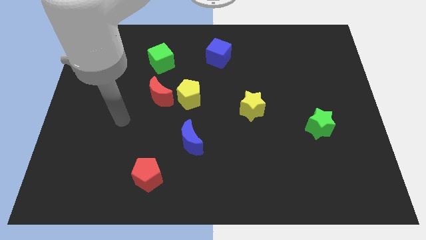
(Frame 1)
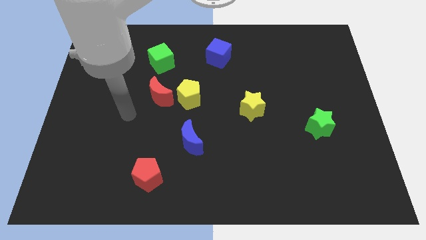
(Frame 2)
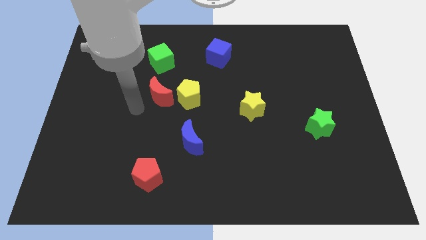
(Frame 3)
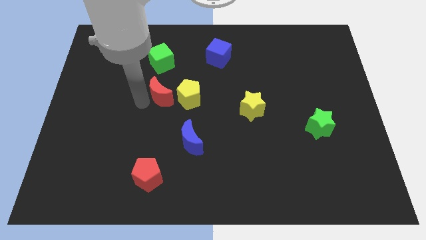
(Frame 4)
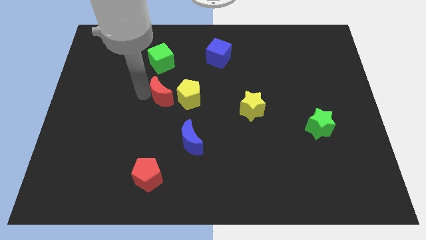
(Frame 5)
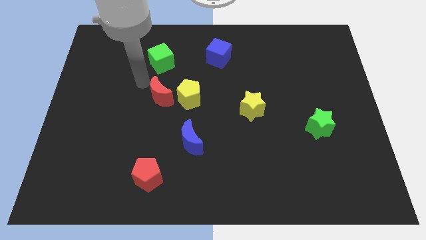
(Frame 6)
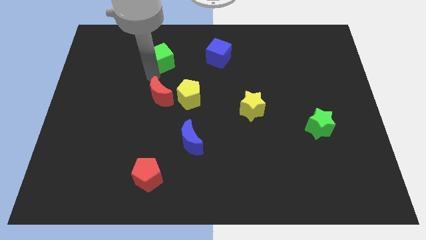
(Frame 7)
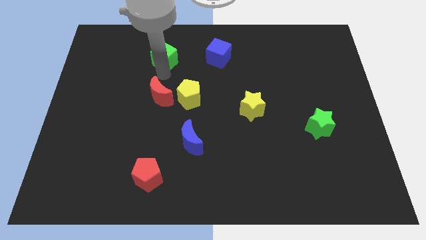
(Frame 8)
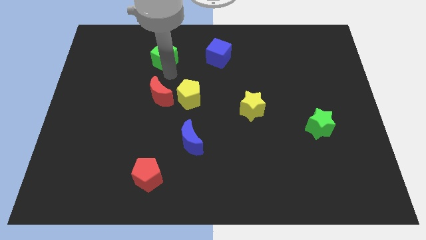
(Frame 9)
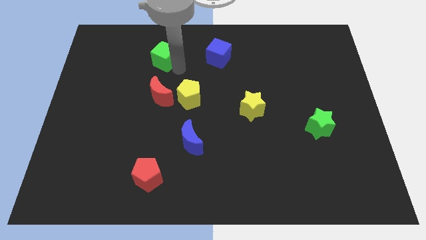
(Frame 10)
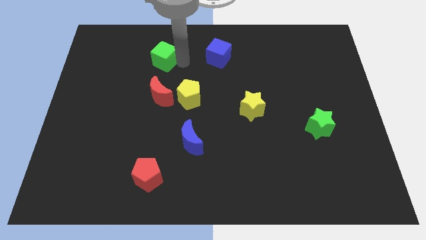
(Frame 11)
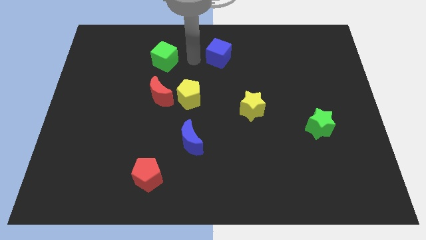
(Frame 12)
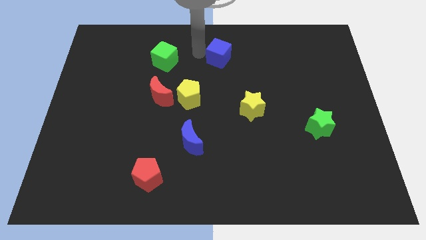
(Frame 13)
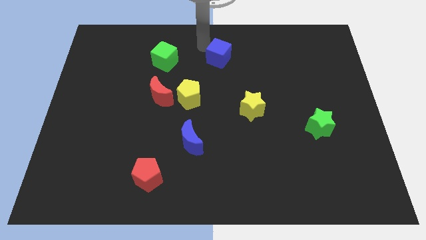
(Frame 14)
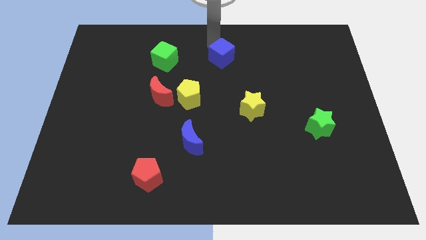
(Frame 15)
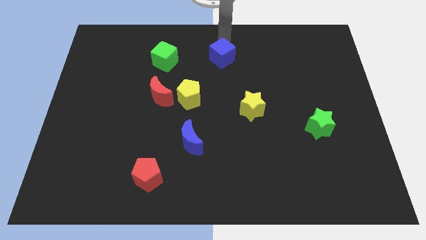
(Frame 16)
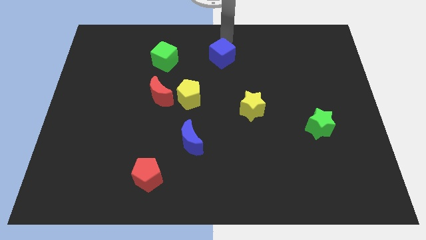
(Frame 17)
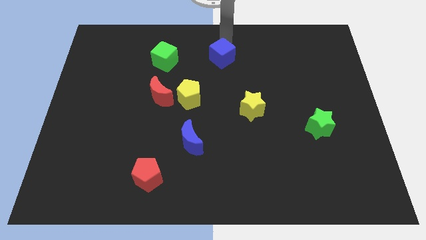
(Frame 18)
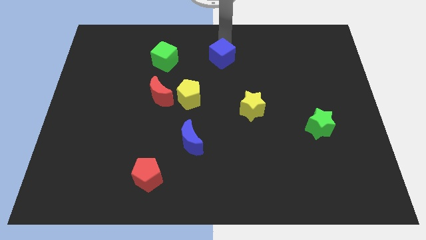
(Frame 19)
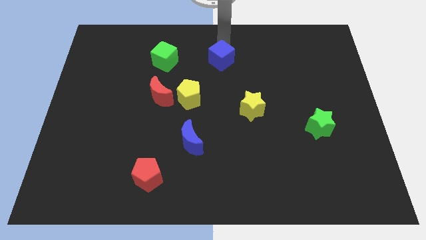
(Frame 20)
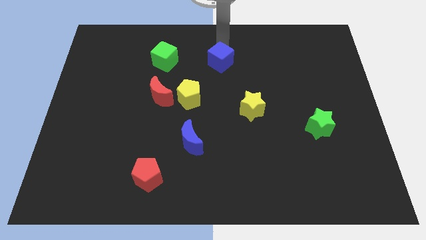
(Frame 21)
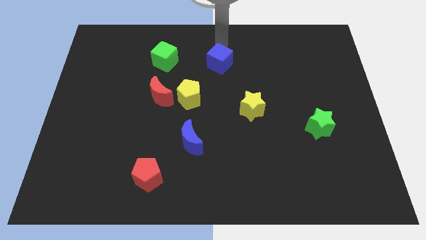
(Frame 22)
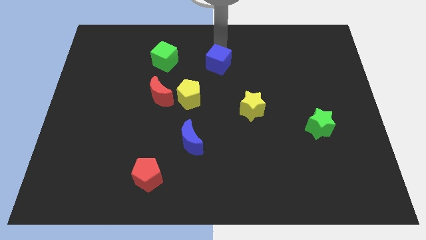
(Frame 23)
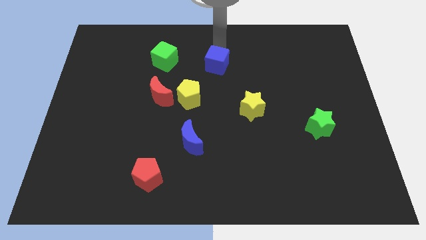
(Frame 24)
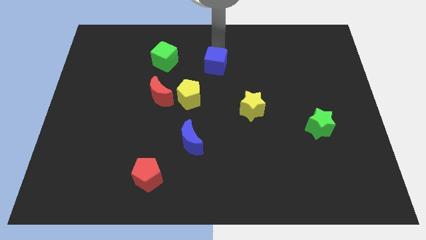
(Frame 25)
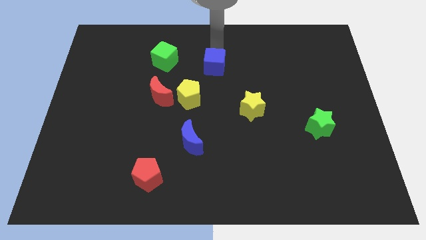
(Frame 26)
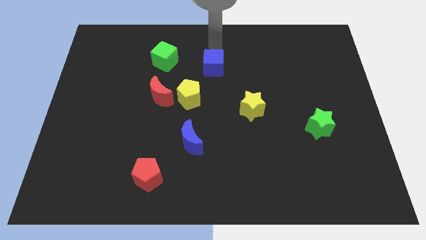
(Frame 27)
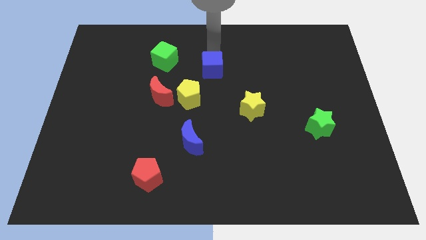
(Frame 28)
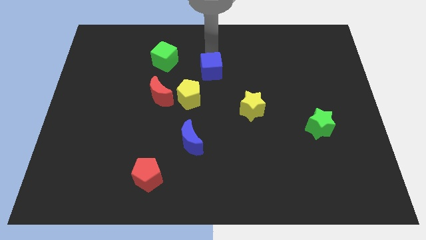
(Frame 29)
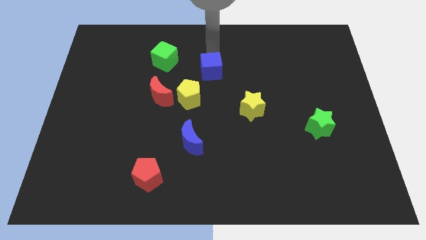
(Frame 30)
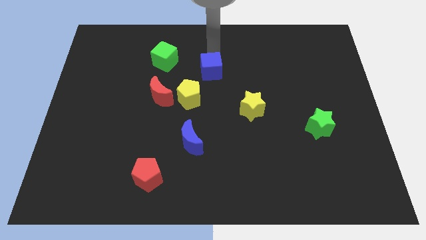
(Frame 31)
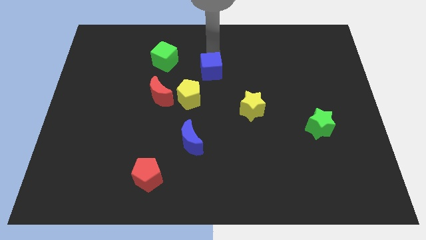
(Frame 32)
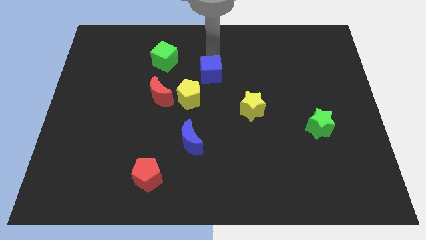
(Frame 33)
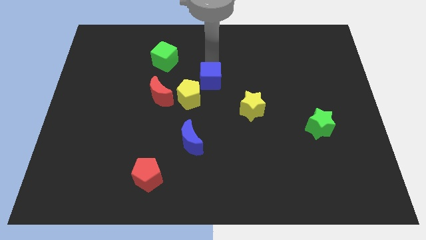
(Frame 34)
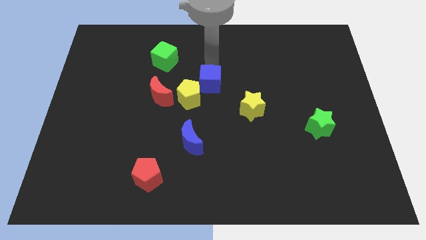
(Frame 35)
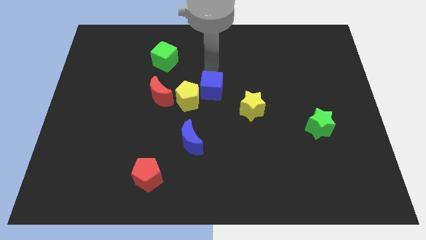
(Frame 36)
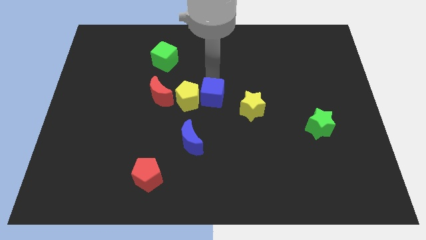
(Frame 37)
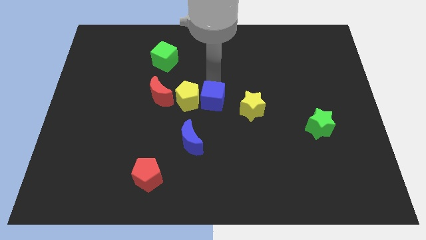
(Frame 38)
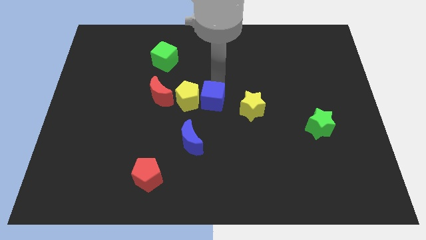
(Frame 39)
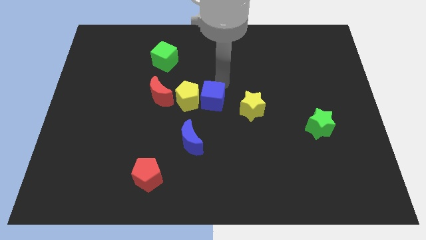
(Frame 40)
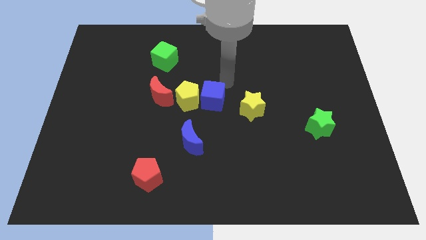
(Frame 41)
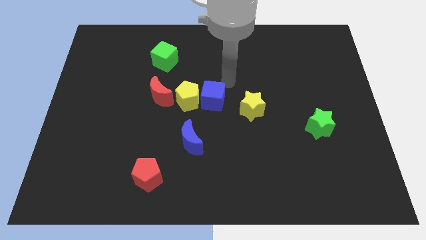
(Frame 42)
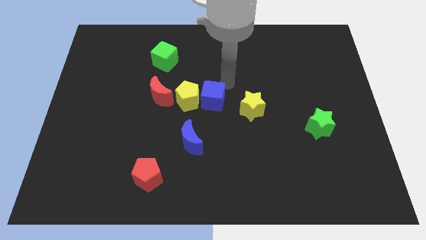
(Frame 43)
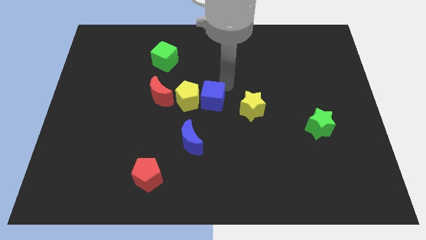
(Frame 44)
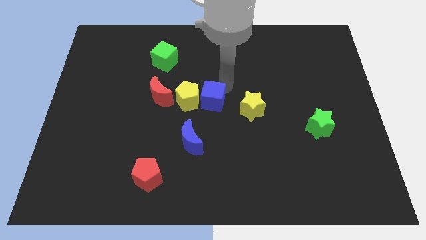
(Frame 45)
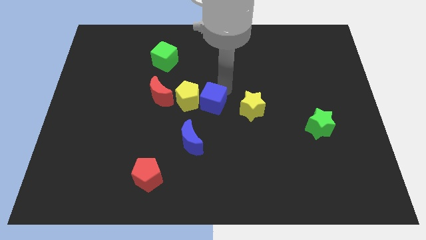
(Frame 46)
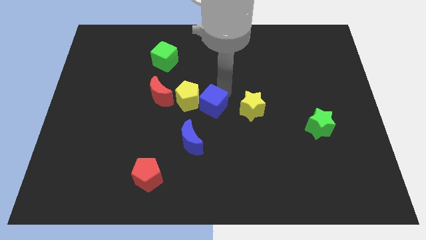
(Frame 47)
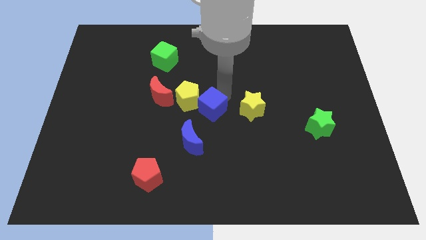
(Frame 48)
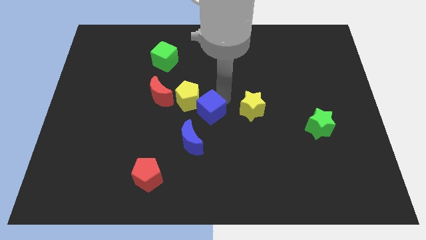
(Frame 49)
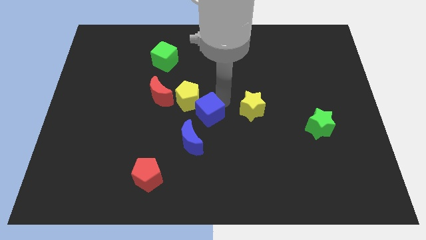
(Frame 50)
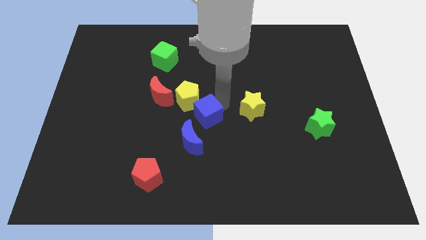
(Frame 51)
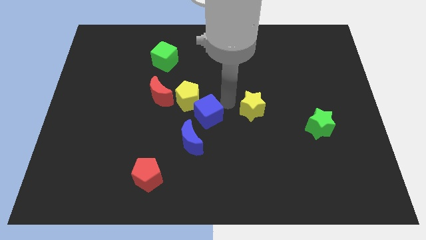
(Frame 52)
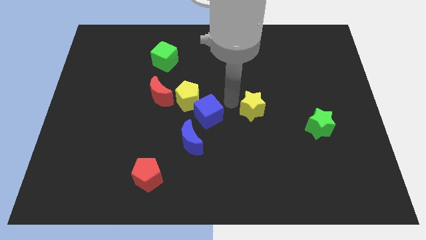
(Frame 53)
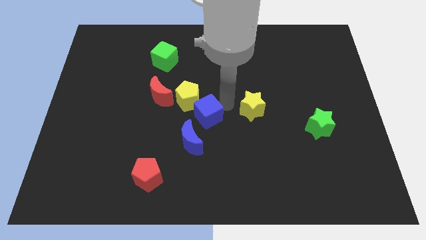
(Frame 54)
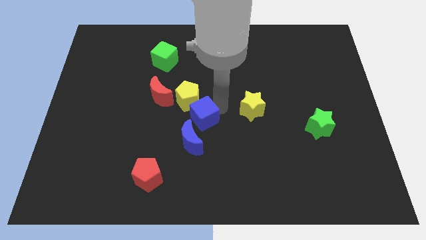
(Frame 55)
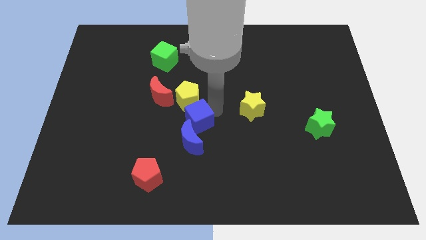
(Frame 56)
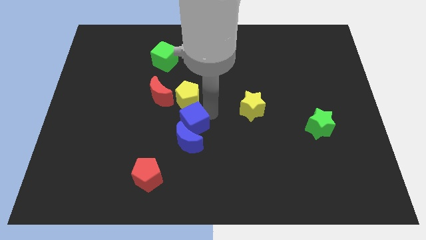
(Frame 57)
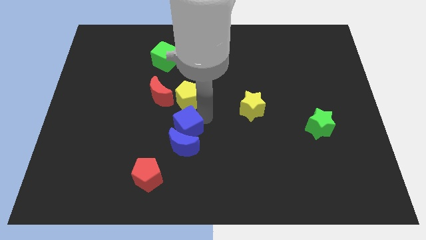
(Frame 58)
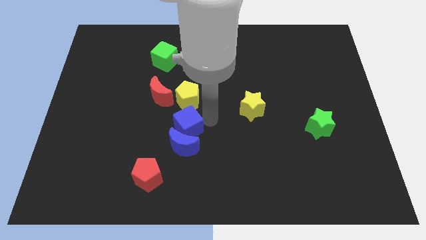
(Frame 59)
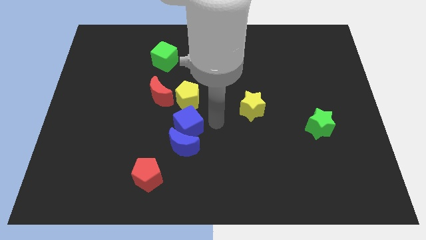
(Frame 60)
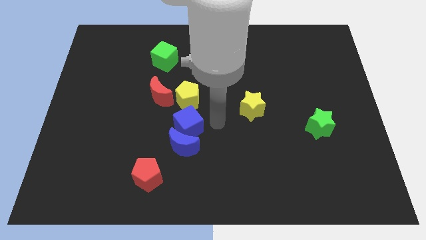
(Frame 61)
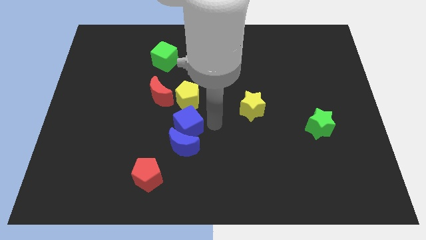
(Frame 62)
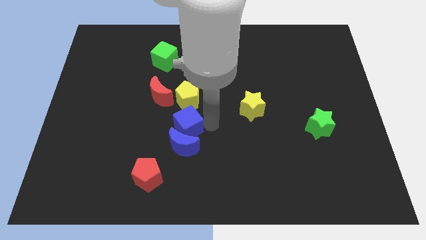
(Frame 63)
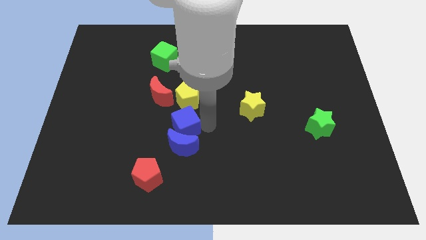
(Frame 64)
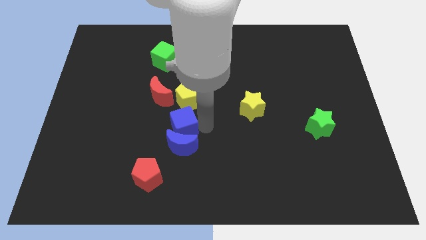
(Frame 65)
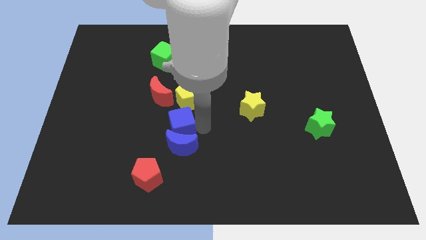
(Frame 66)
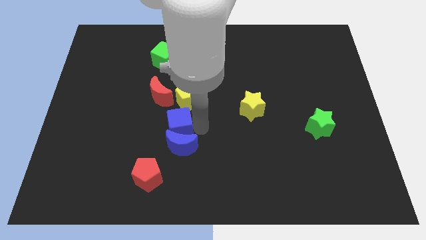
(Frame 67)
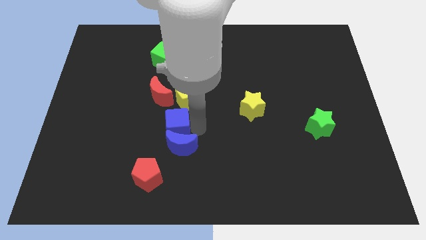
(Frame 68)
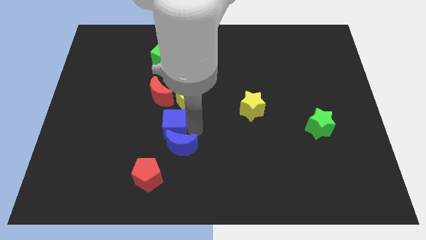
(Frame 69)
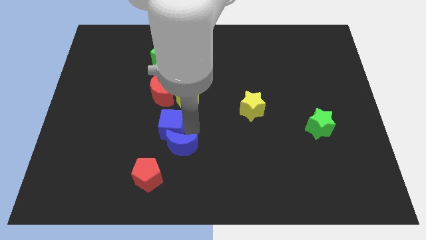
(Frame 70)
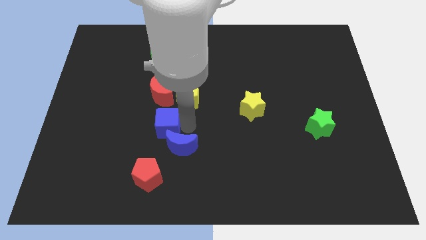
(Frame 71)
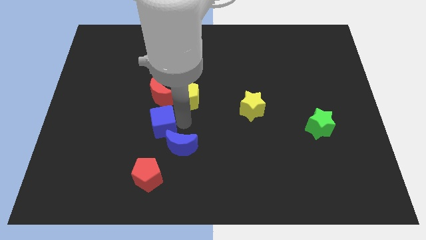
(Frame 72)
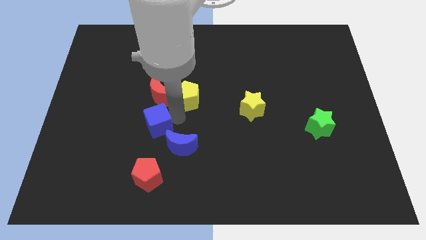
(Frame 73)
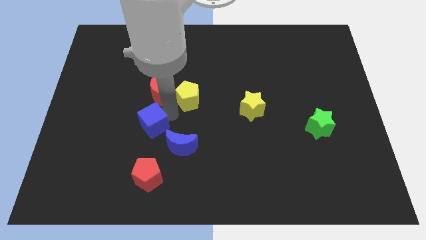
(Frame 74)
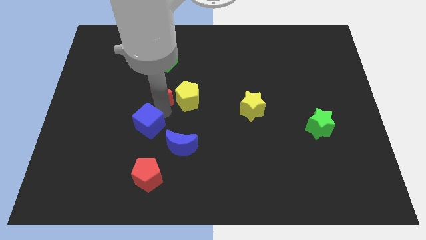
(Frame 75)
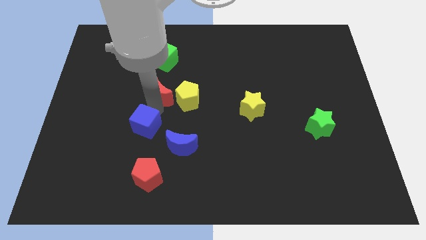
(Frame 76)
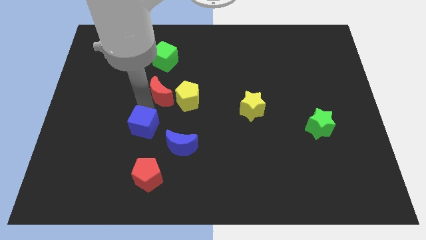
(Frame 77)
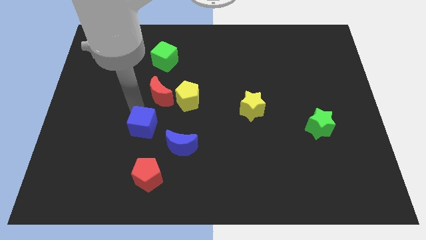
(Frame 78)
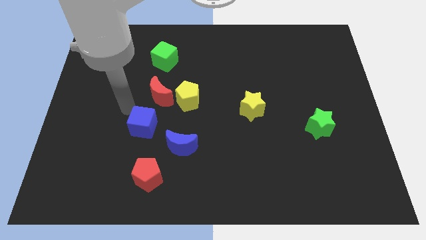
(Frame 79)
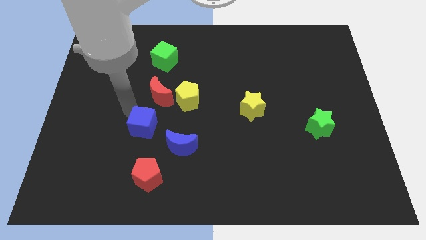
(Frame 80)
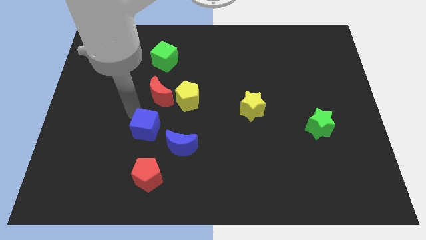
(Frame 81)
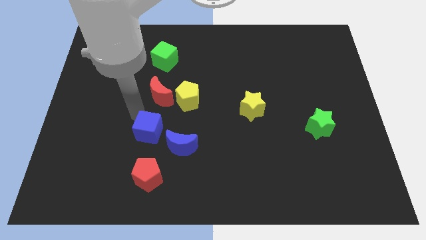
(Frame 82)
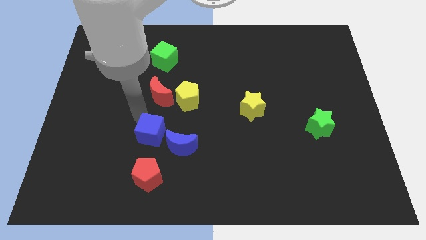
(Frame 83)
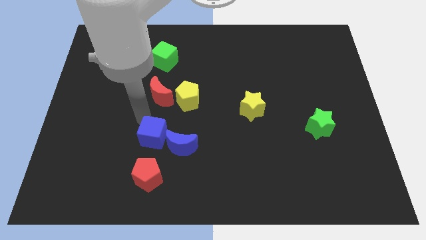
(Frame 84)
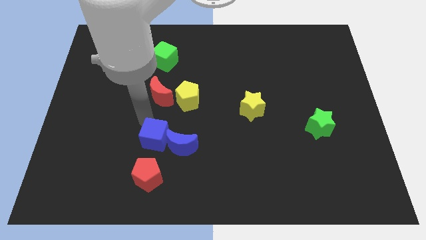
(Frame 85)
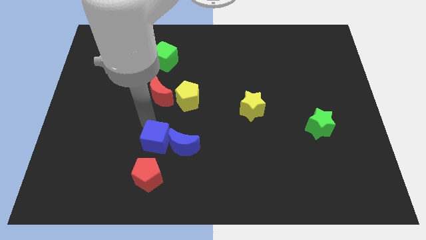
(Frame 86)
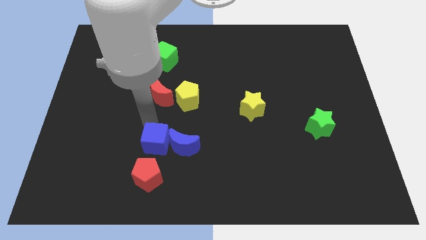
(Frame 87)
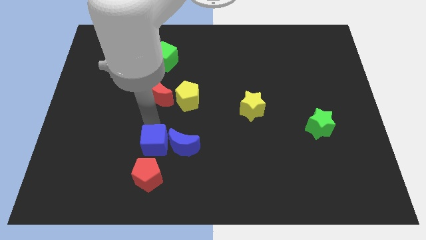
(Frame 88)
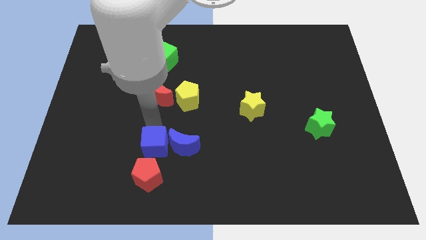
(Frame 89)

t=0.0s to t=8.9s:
put the blue cube to the top right of the red pentagon
